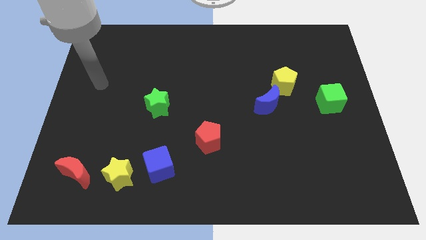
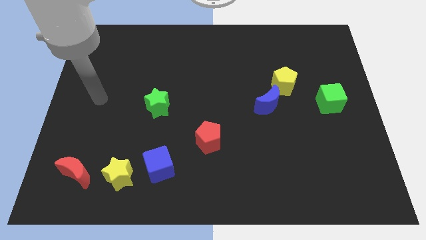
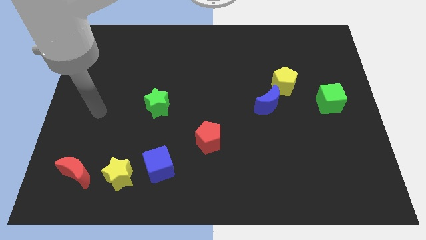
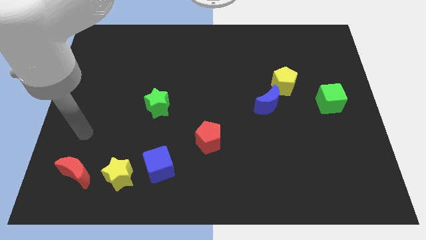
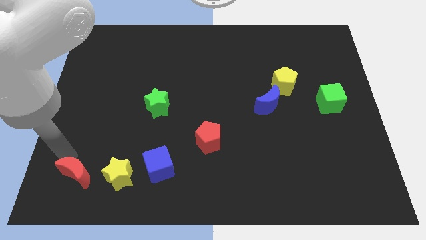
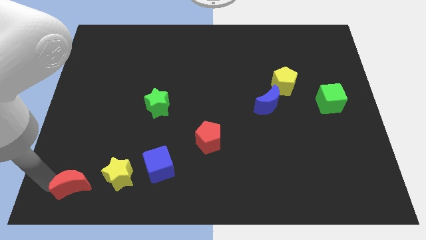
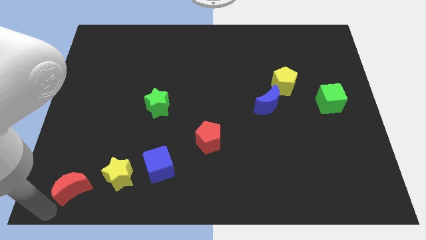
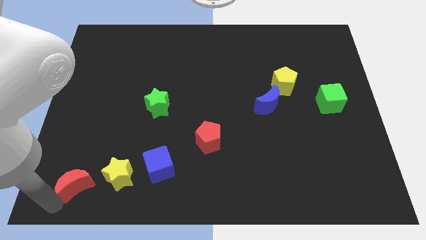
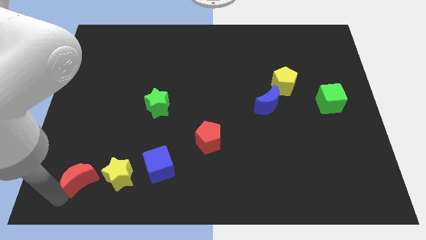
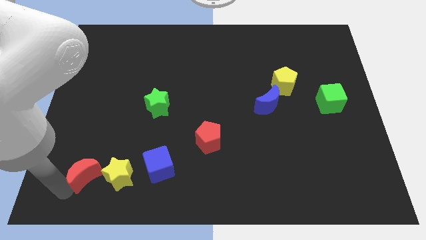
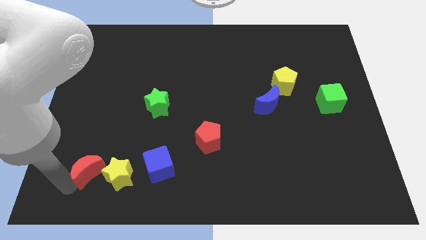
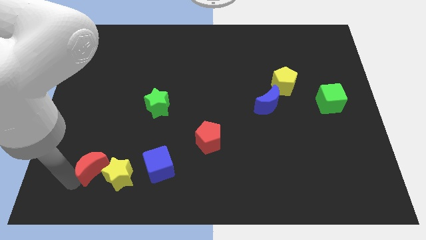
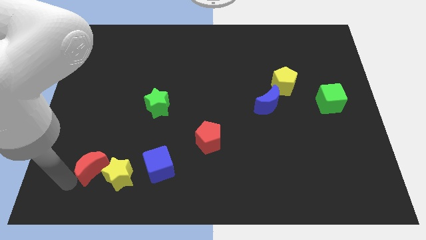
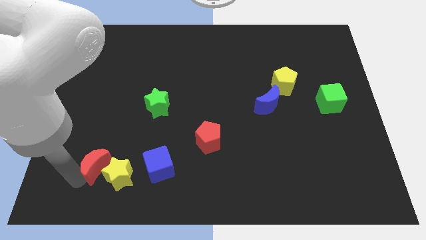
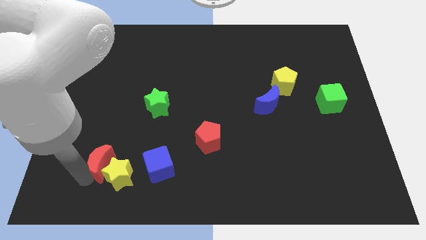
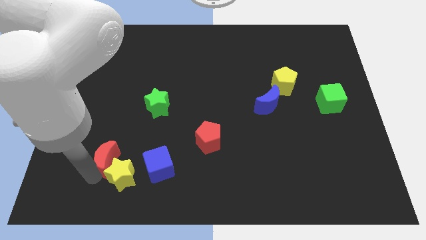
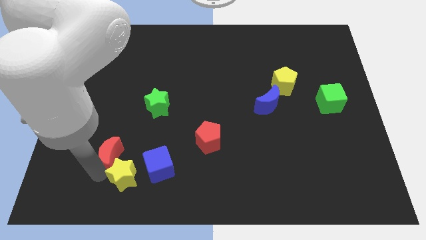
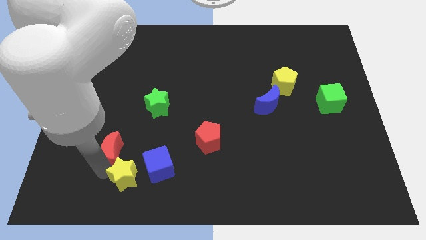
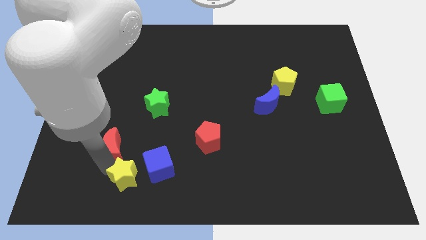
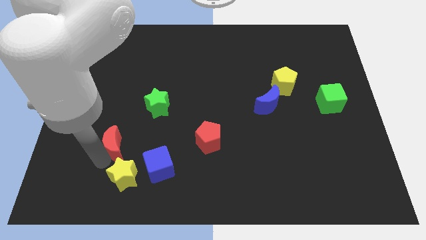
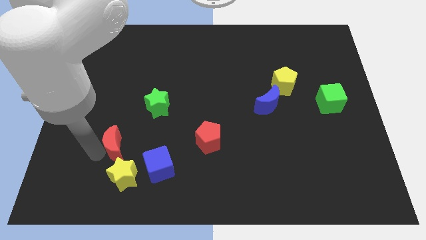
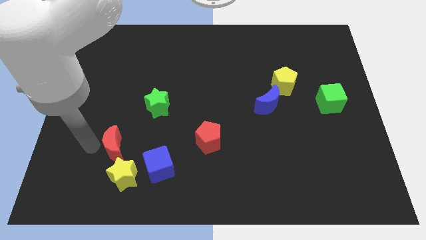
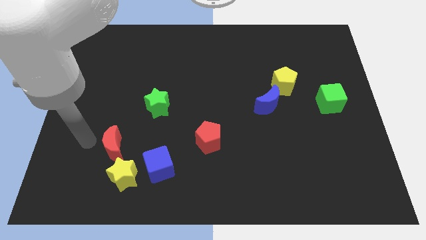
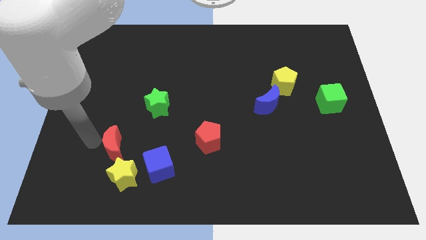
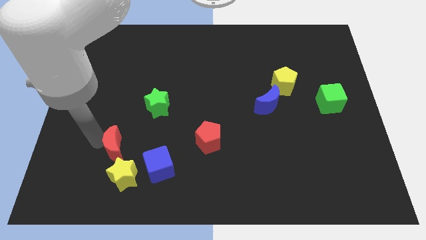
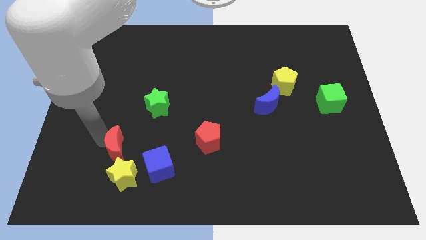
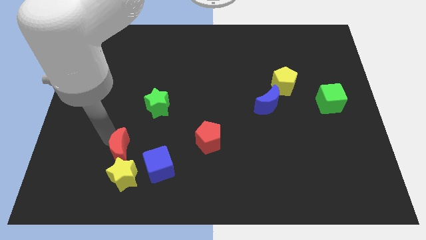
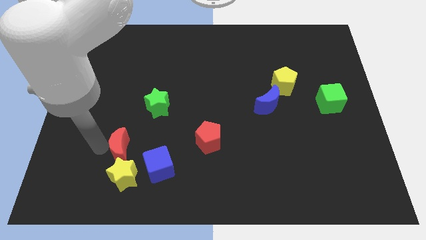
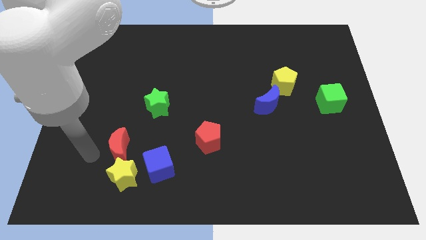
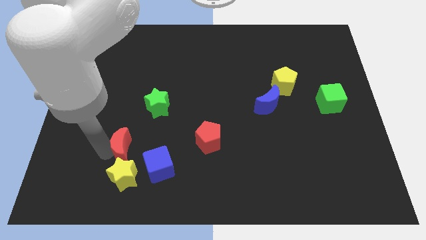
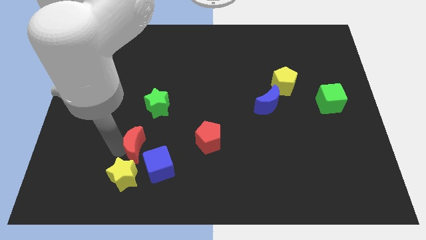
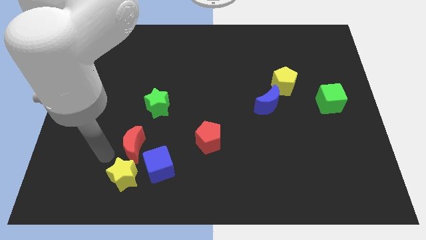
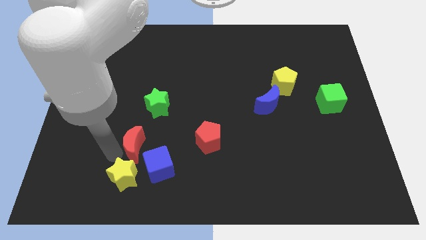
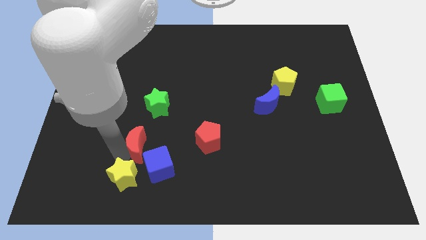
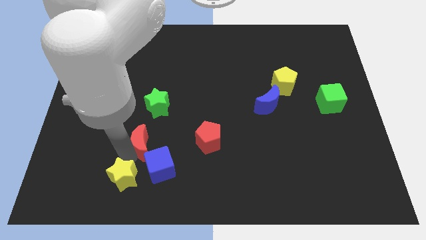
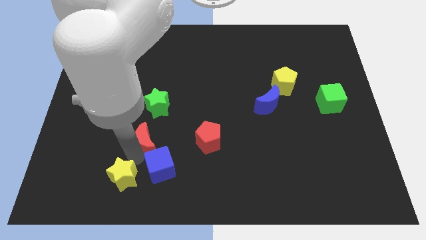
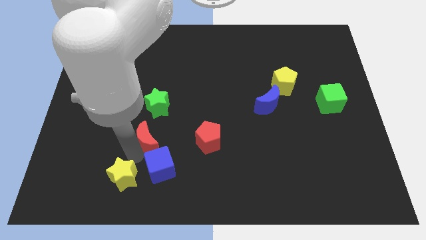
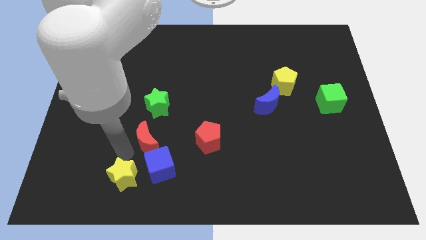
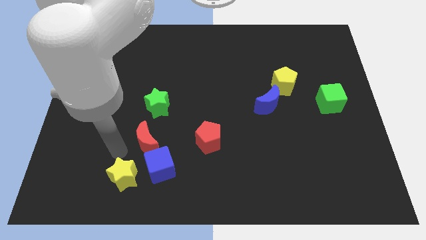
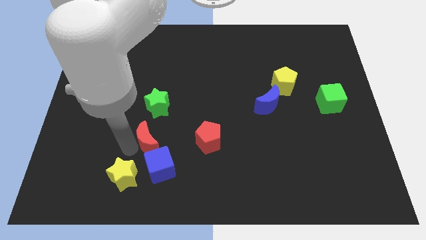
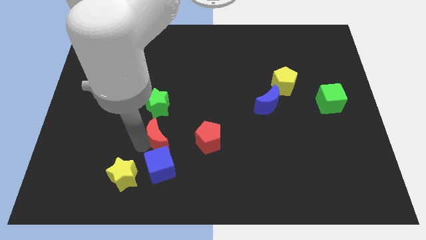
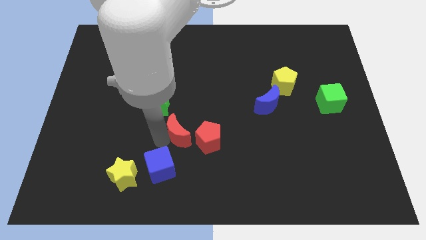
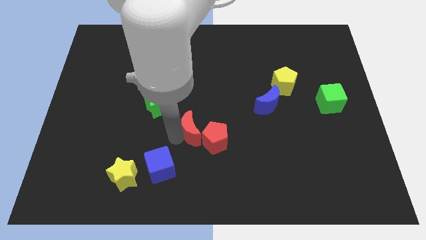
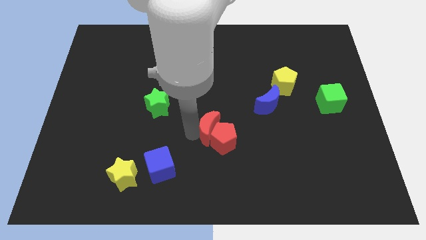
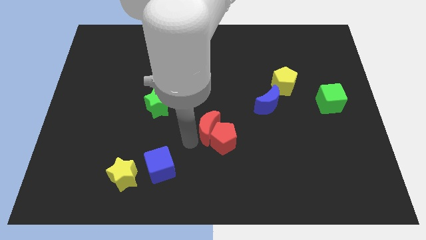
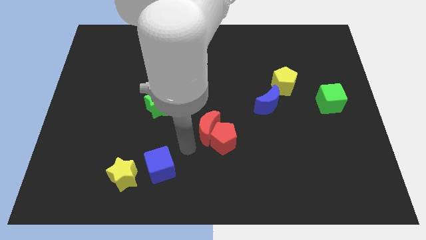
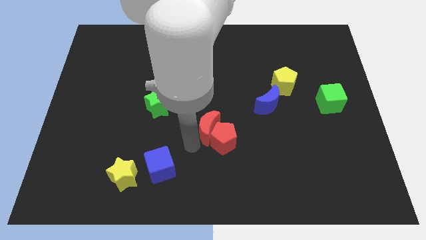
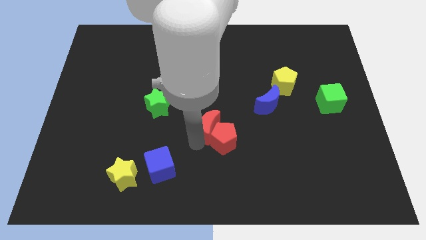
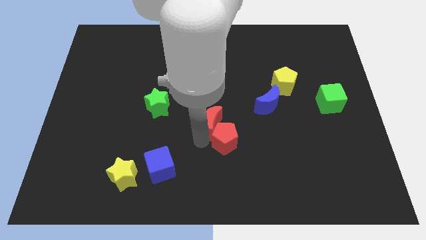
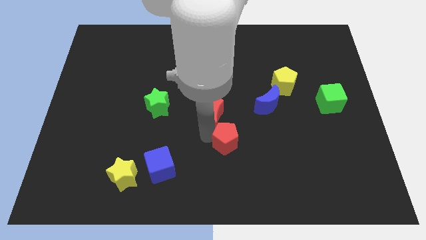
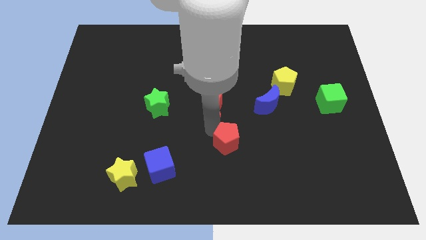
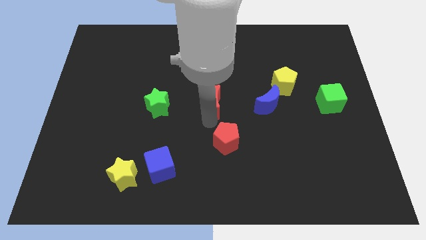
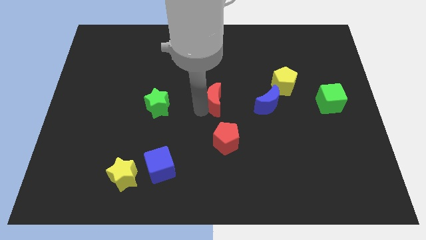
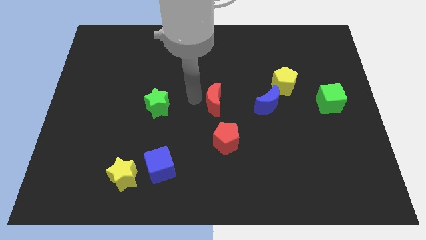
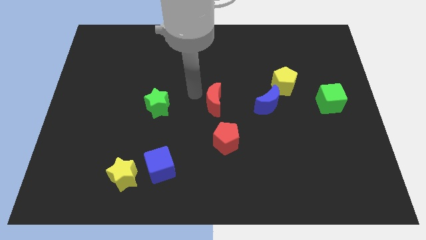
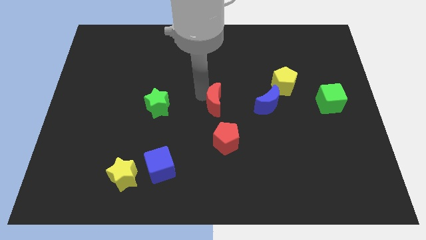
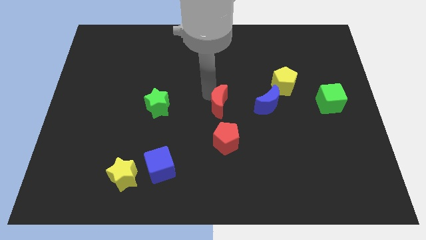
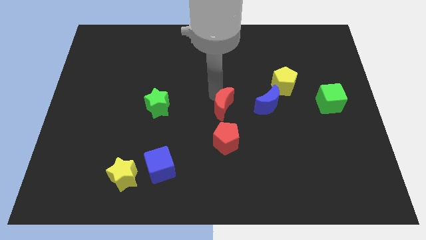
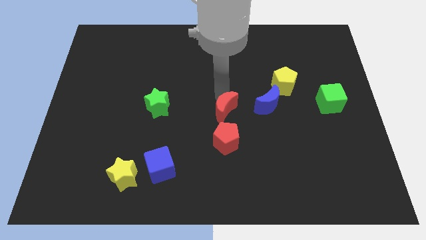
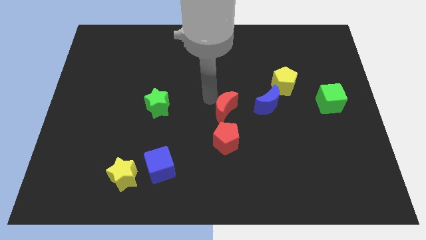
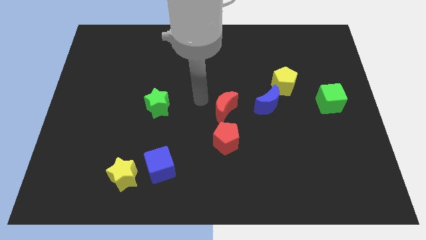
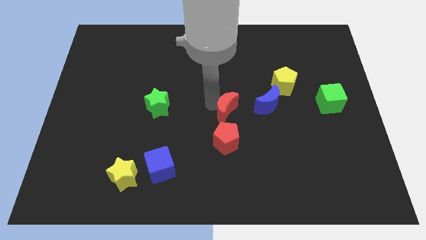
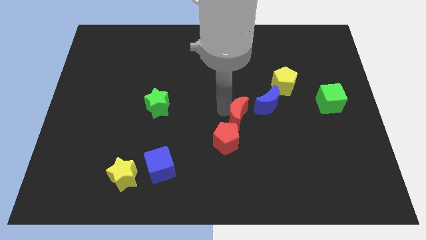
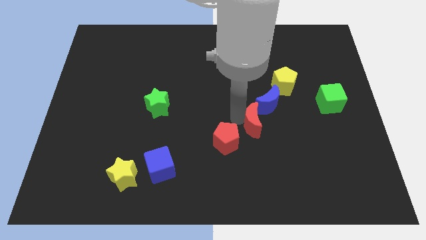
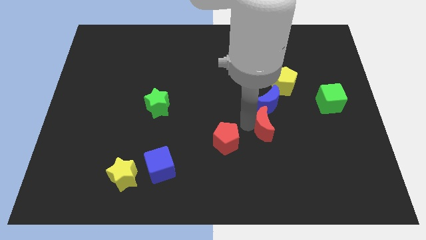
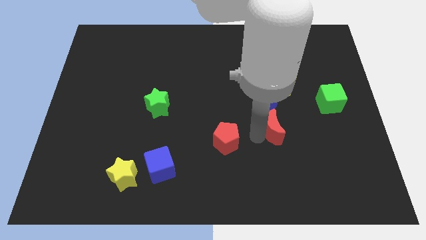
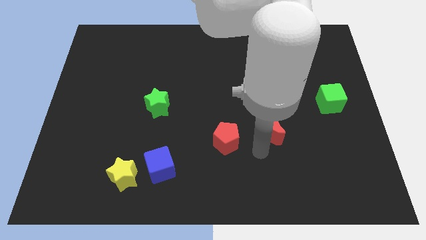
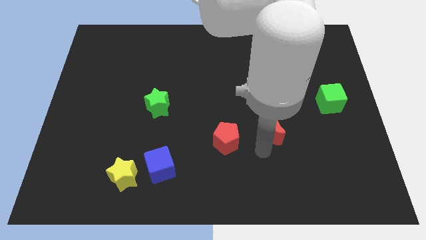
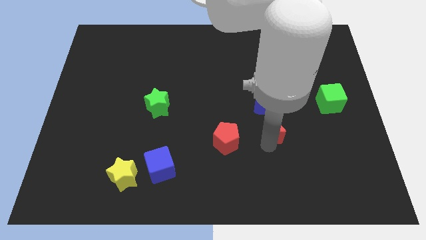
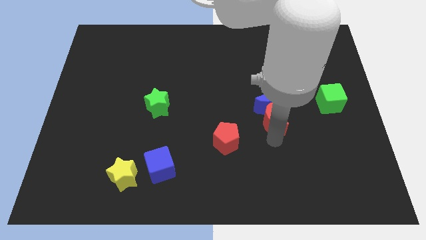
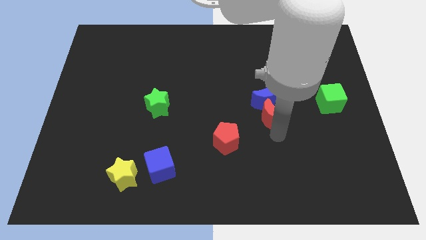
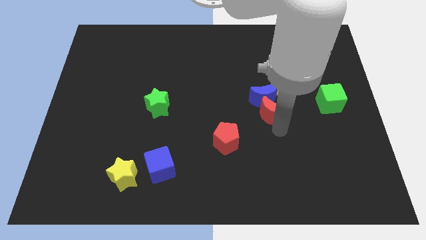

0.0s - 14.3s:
move the red moon to the left side of the green cube
